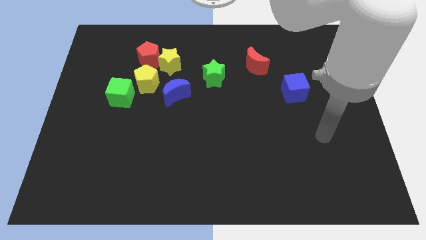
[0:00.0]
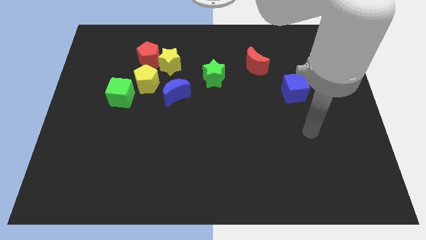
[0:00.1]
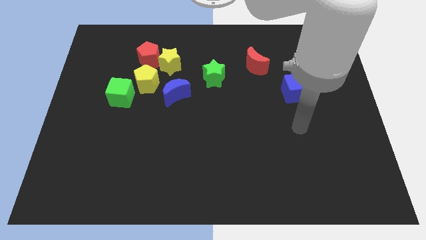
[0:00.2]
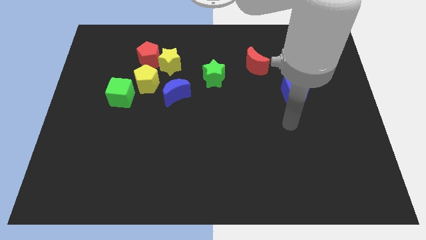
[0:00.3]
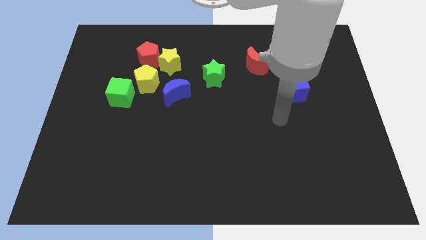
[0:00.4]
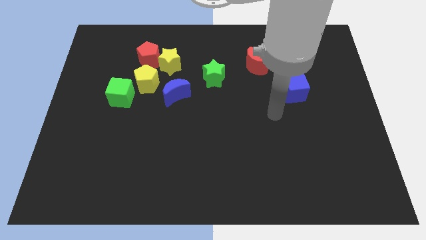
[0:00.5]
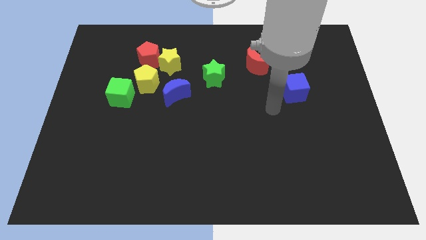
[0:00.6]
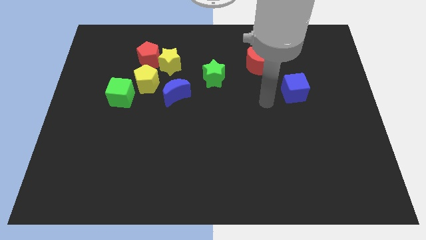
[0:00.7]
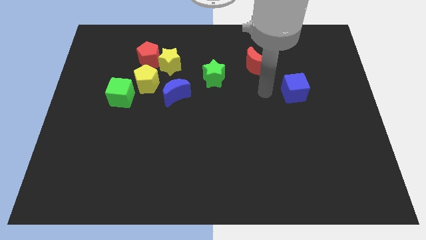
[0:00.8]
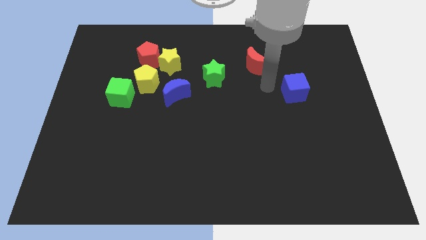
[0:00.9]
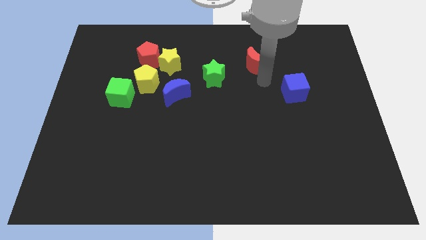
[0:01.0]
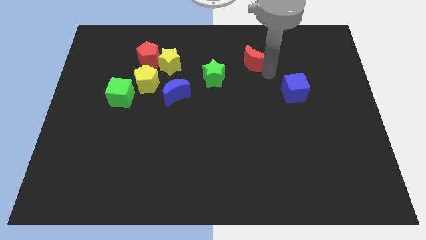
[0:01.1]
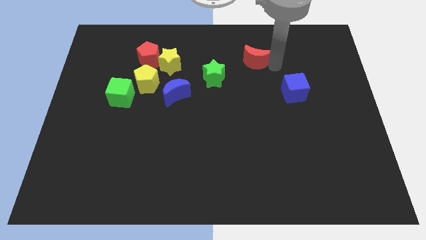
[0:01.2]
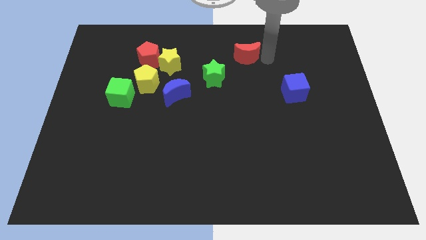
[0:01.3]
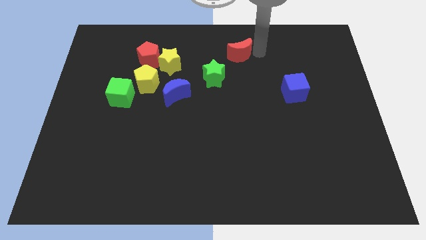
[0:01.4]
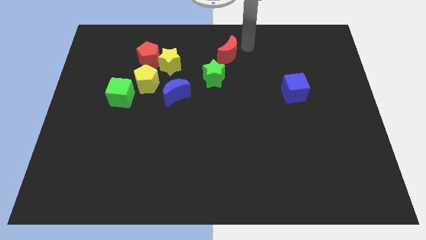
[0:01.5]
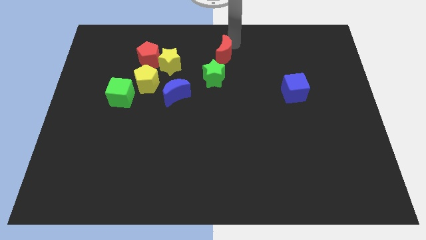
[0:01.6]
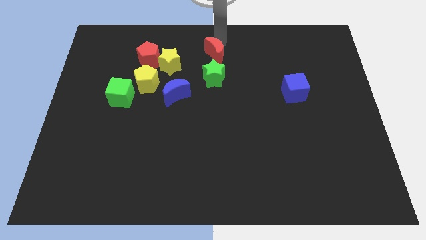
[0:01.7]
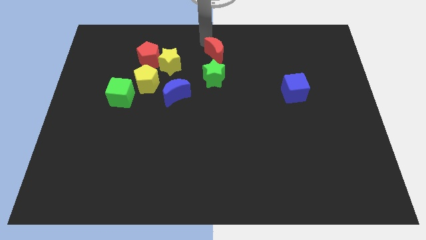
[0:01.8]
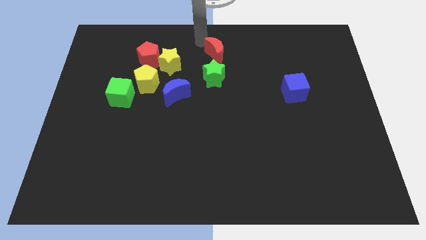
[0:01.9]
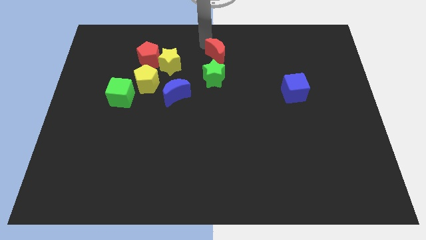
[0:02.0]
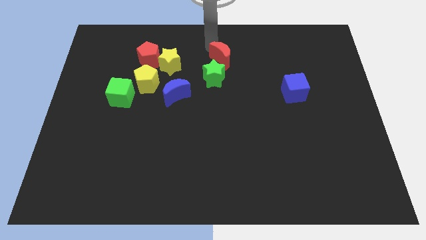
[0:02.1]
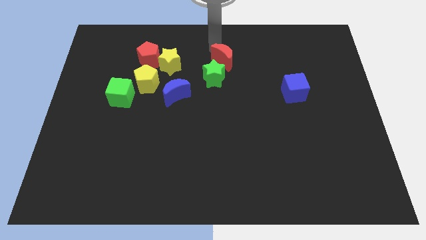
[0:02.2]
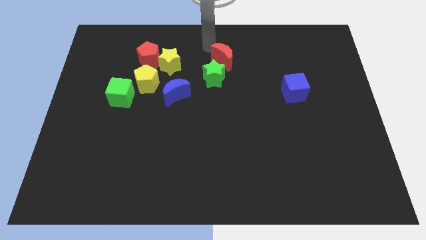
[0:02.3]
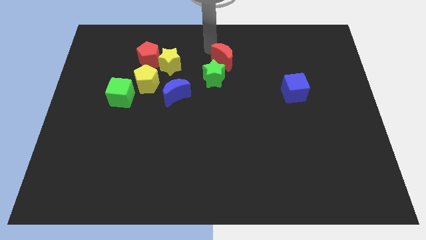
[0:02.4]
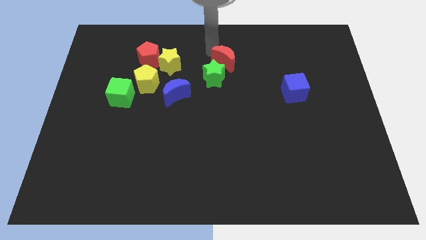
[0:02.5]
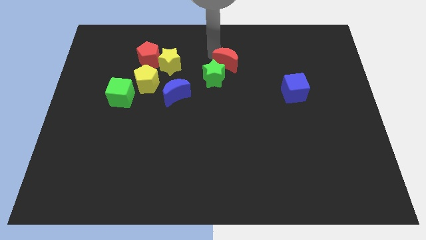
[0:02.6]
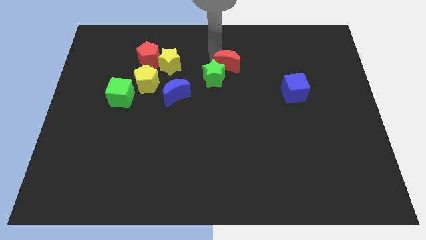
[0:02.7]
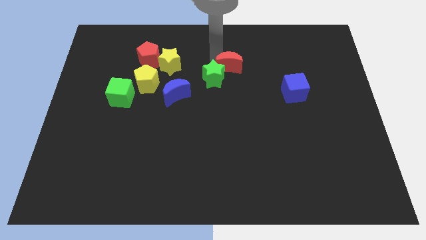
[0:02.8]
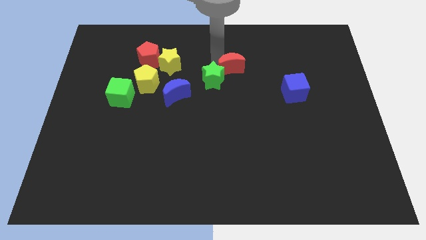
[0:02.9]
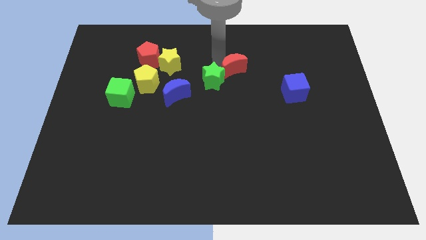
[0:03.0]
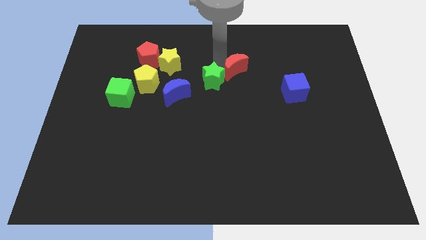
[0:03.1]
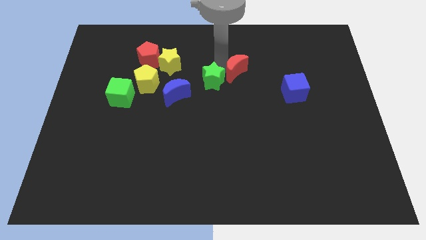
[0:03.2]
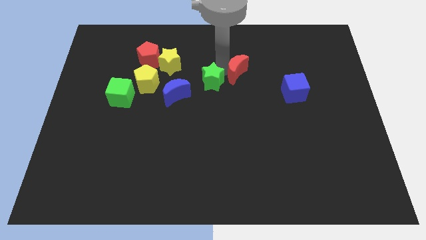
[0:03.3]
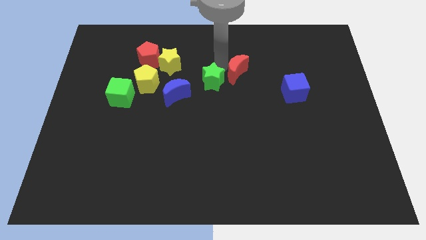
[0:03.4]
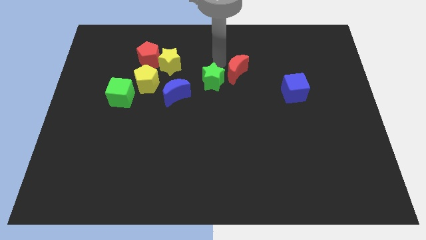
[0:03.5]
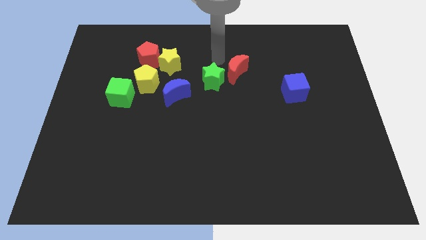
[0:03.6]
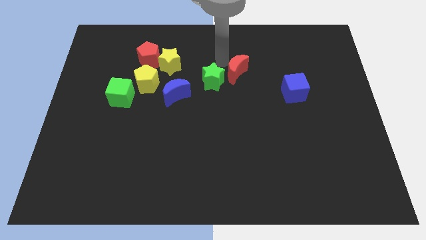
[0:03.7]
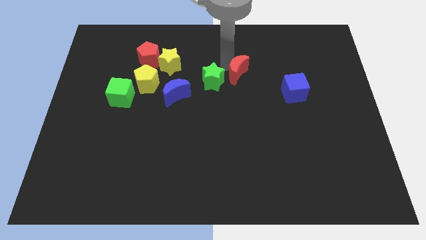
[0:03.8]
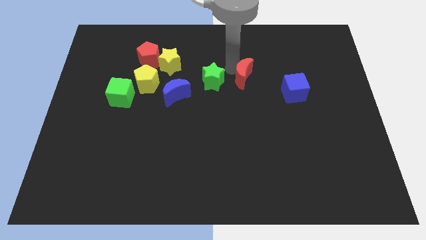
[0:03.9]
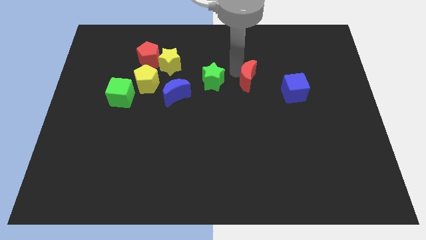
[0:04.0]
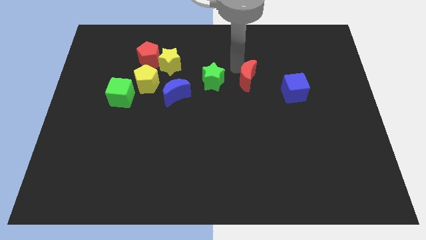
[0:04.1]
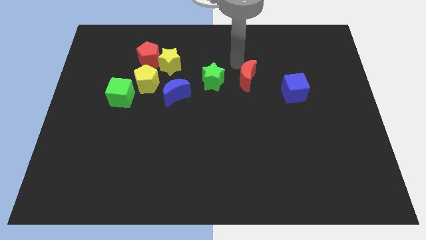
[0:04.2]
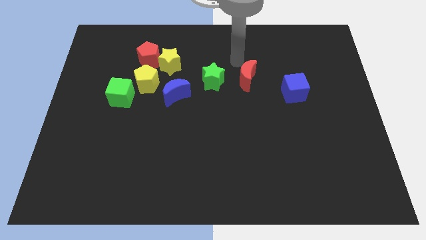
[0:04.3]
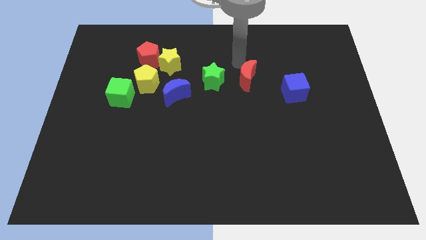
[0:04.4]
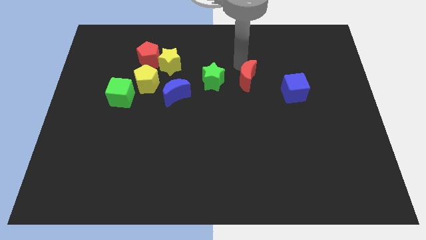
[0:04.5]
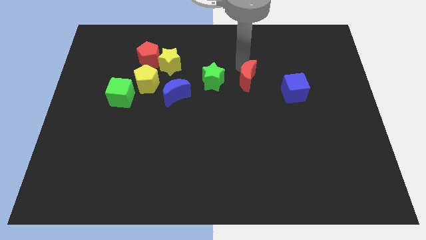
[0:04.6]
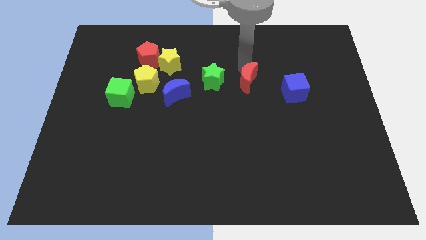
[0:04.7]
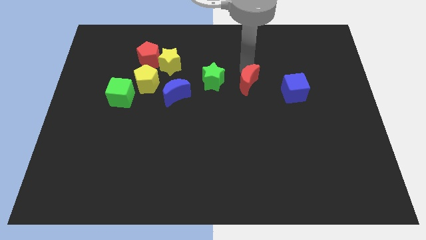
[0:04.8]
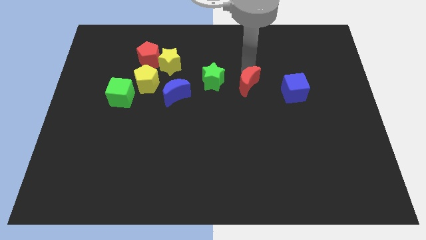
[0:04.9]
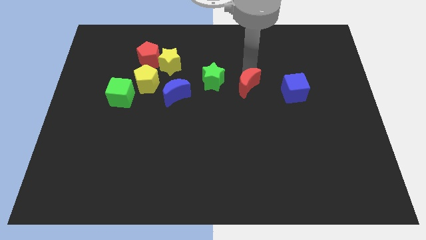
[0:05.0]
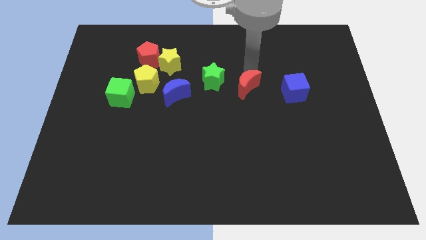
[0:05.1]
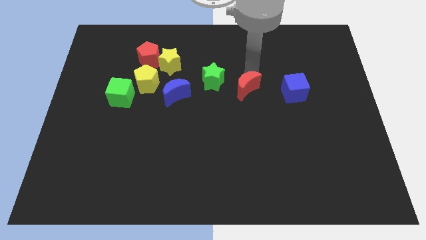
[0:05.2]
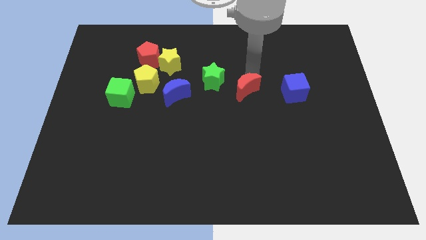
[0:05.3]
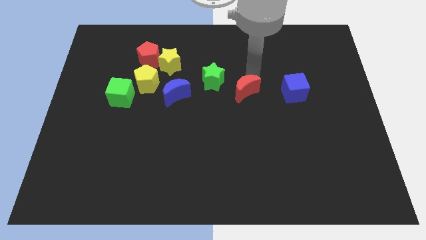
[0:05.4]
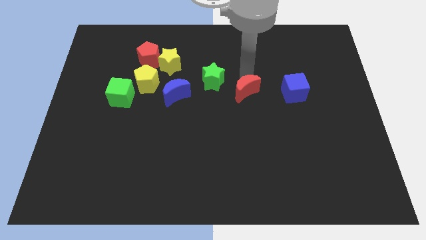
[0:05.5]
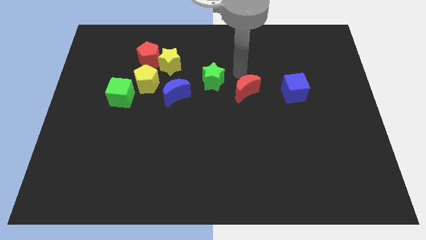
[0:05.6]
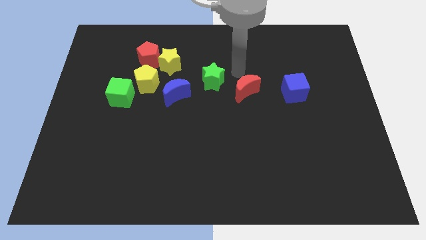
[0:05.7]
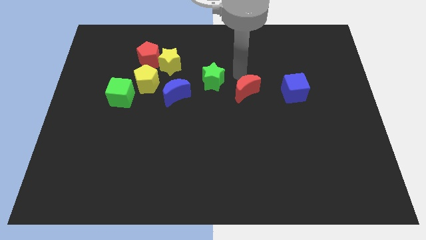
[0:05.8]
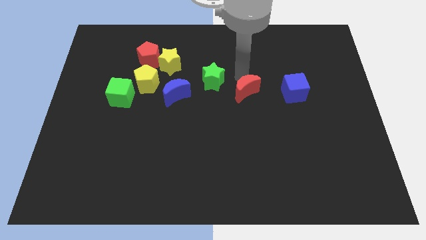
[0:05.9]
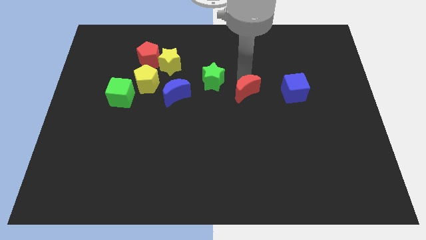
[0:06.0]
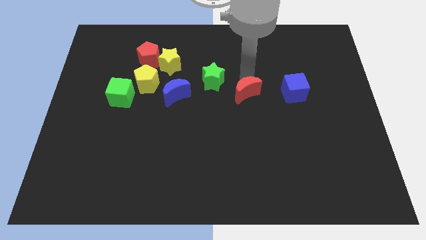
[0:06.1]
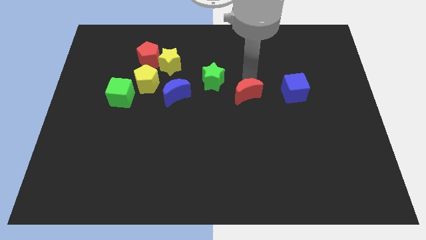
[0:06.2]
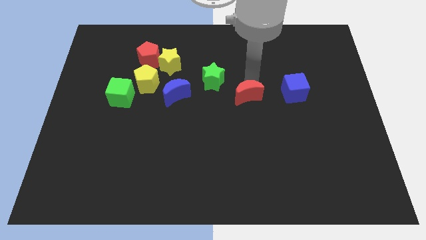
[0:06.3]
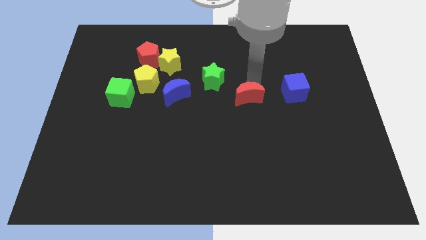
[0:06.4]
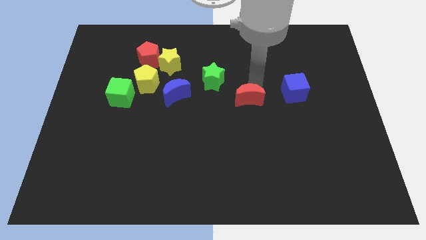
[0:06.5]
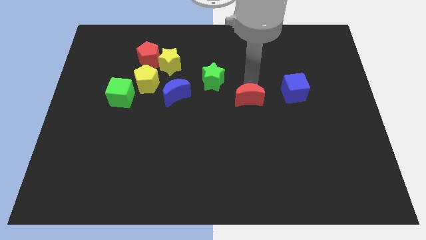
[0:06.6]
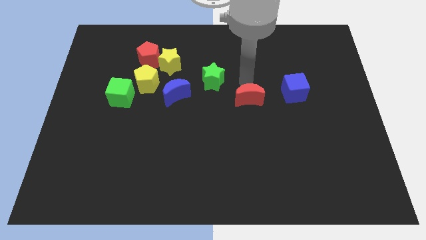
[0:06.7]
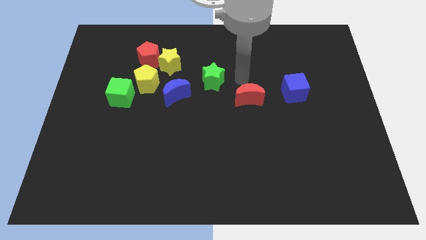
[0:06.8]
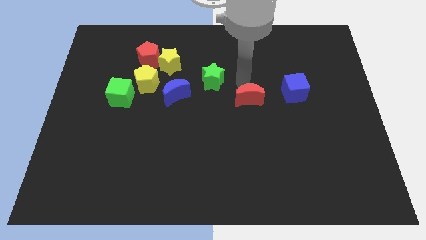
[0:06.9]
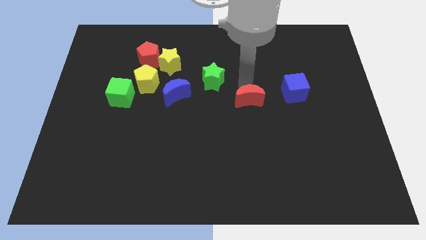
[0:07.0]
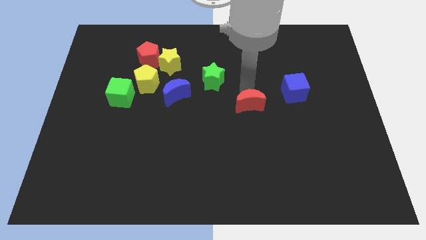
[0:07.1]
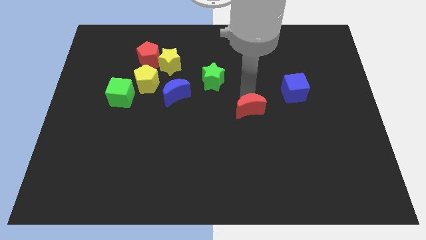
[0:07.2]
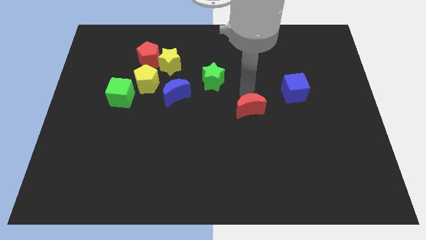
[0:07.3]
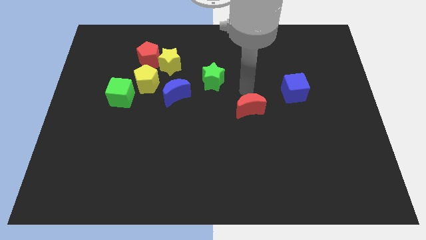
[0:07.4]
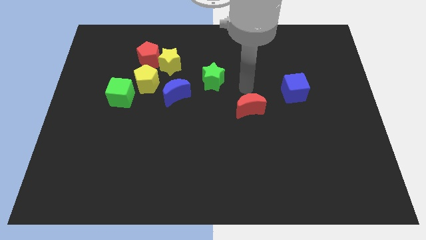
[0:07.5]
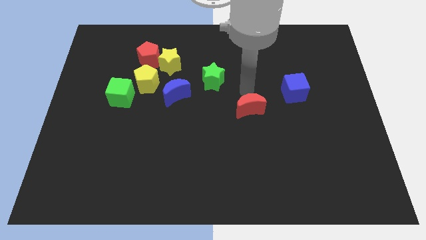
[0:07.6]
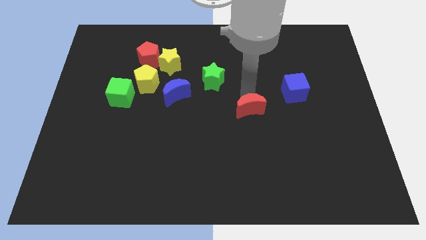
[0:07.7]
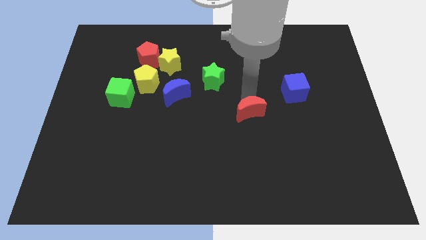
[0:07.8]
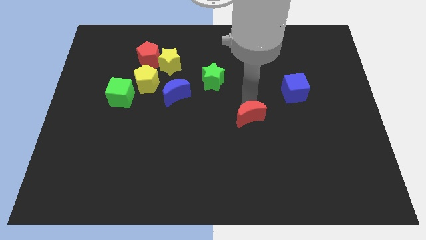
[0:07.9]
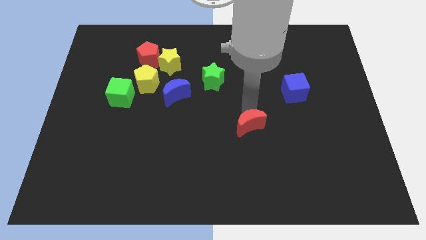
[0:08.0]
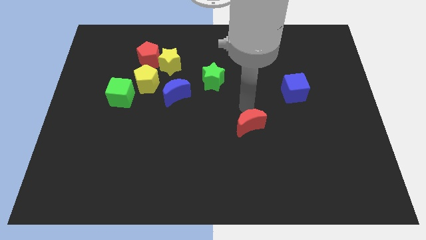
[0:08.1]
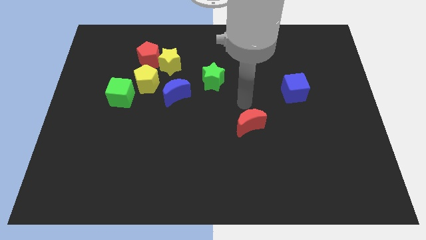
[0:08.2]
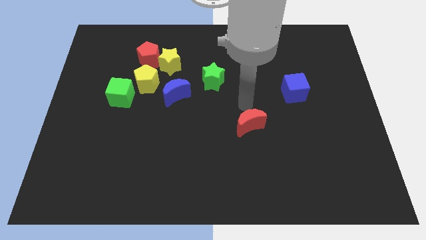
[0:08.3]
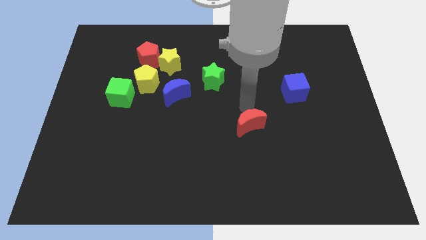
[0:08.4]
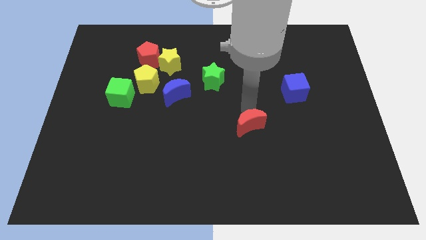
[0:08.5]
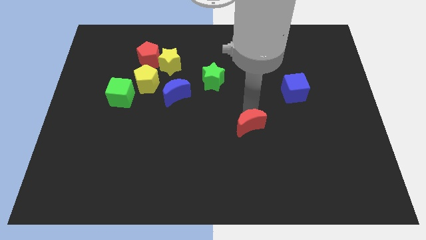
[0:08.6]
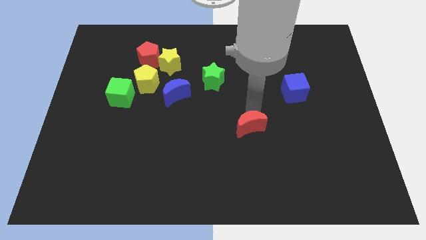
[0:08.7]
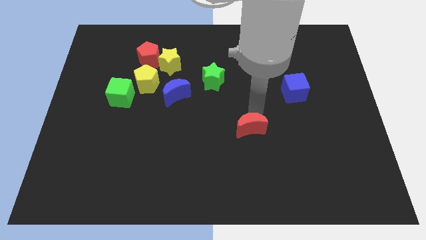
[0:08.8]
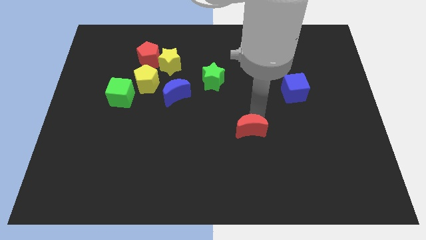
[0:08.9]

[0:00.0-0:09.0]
move the red moon down
